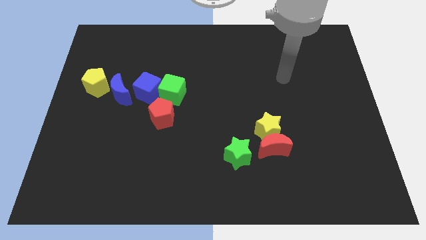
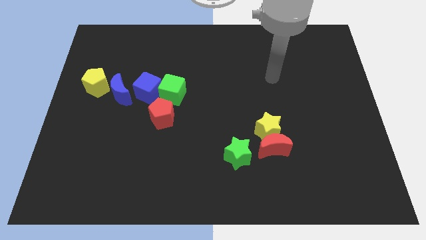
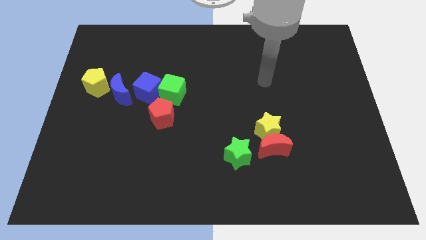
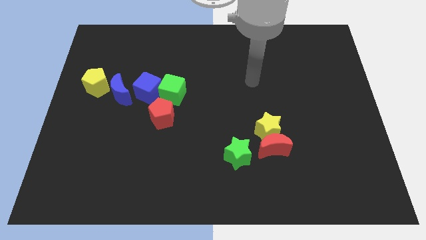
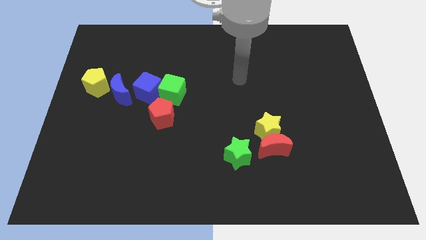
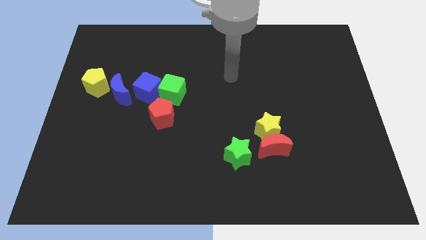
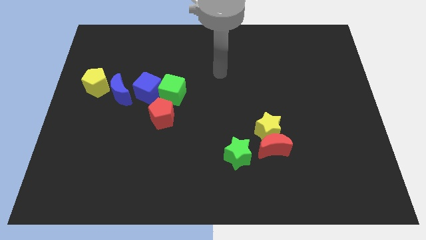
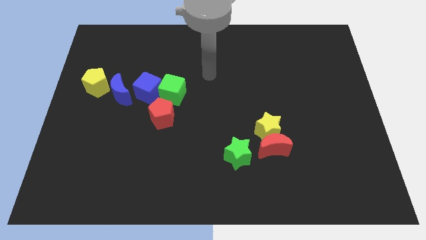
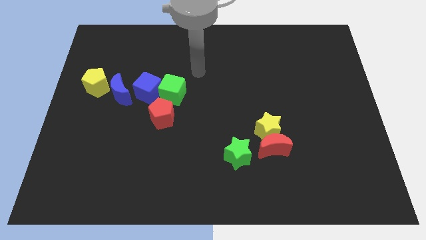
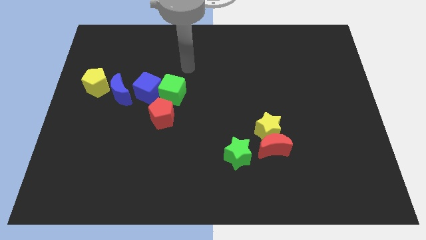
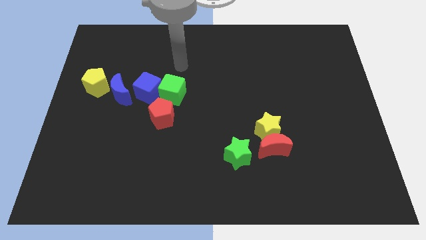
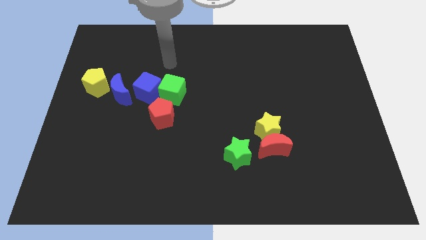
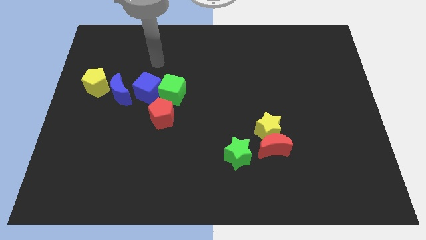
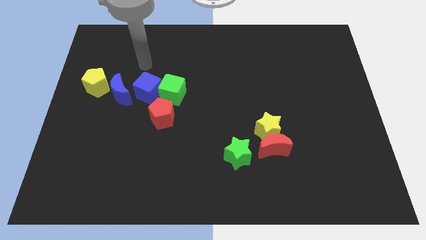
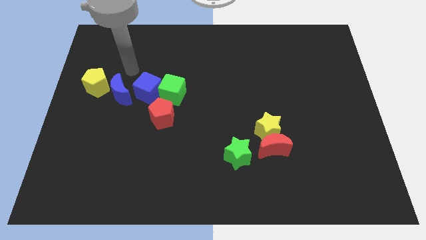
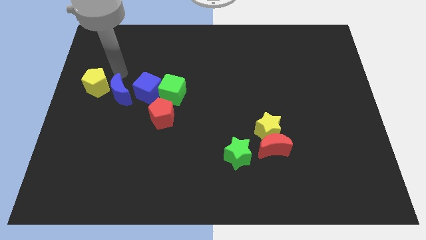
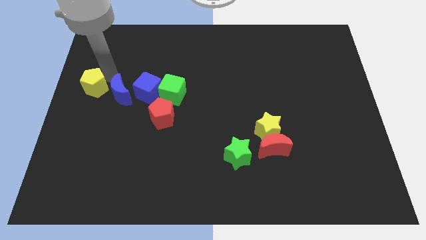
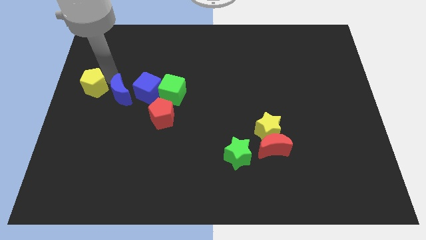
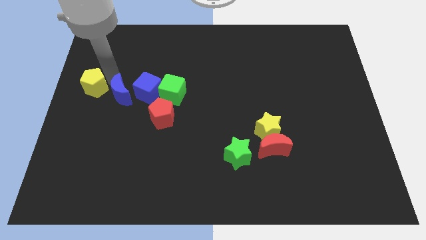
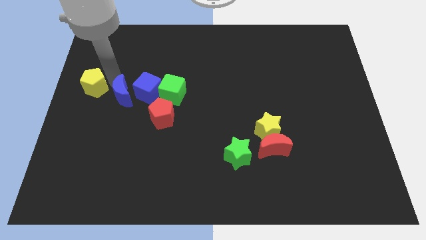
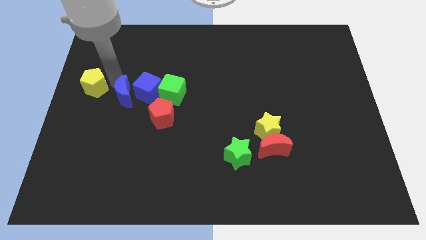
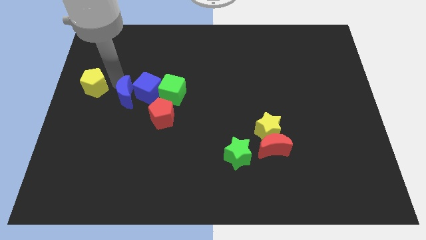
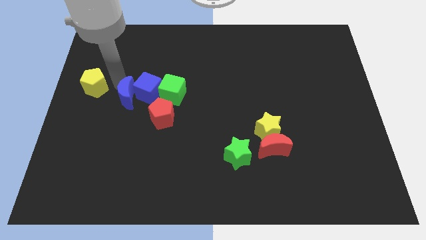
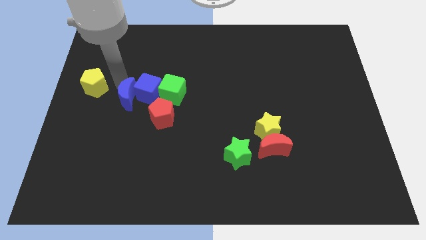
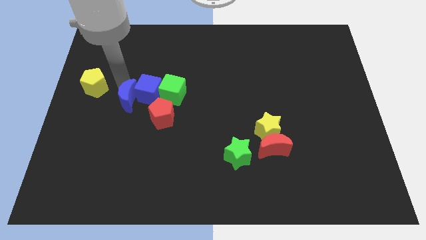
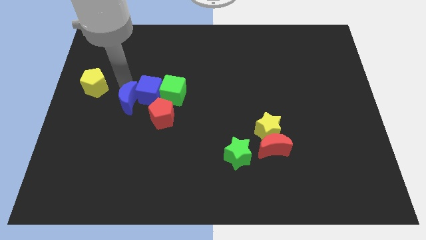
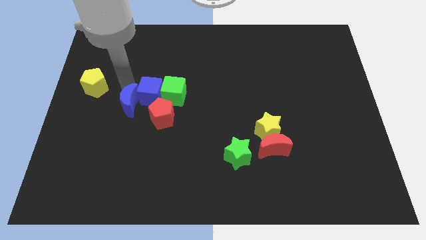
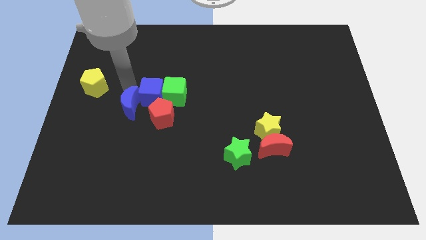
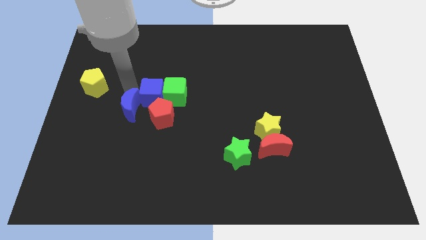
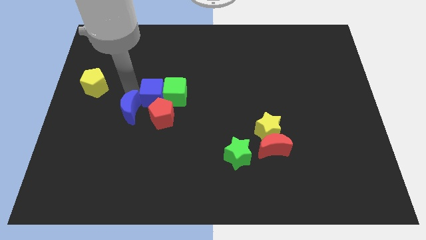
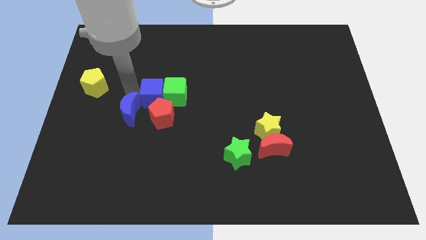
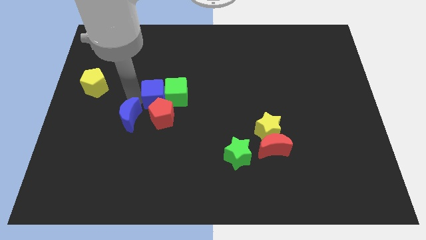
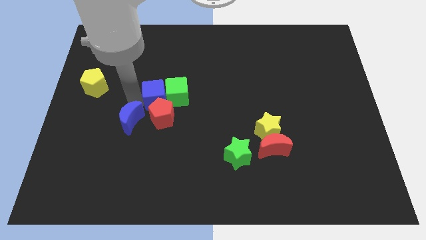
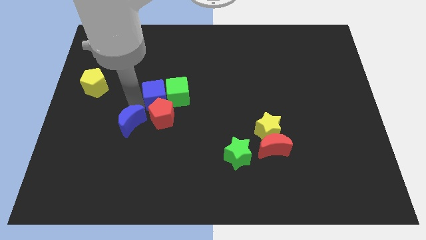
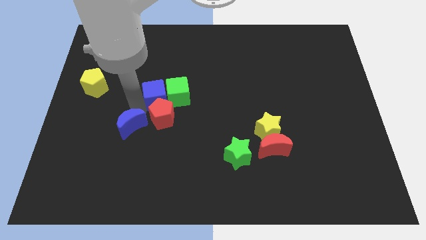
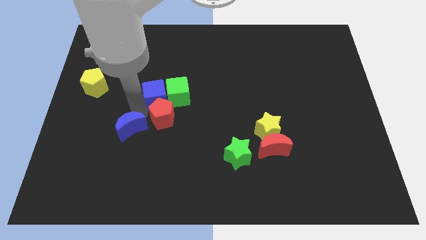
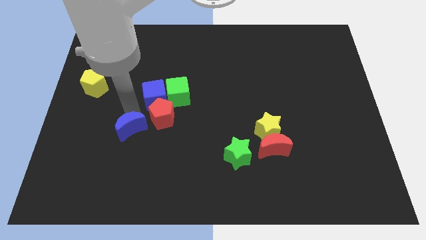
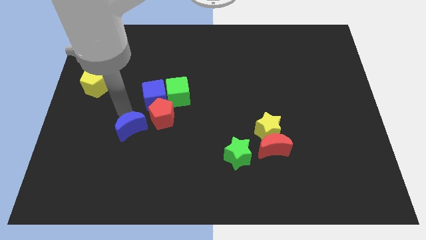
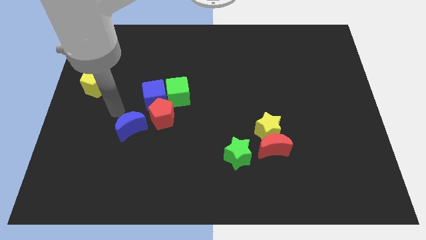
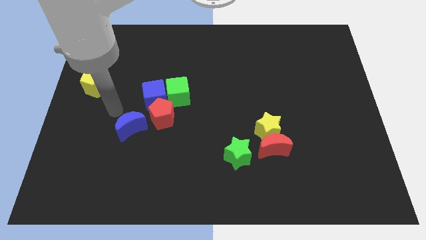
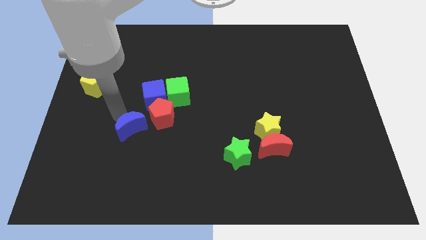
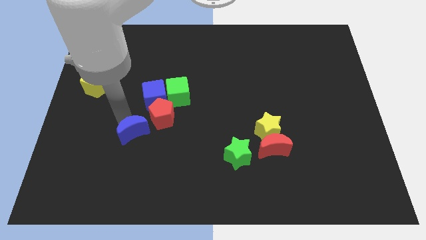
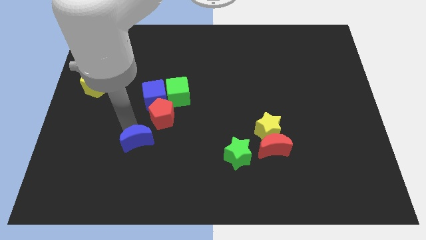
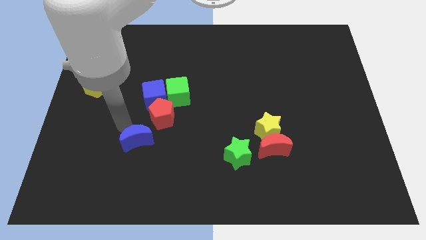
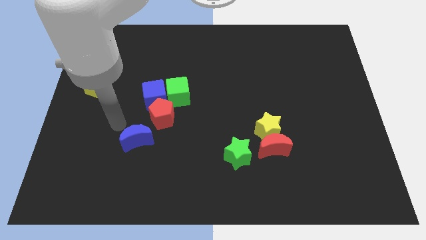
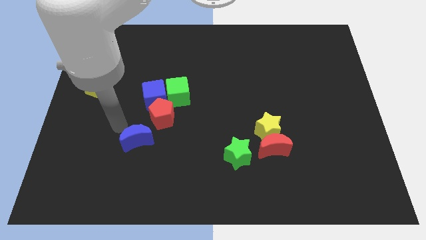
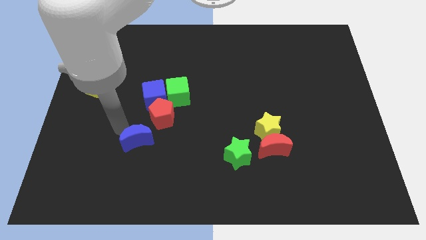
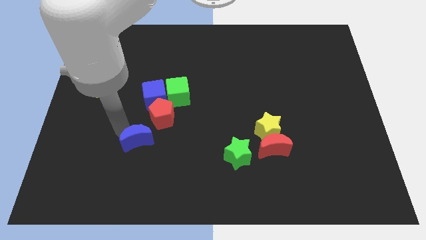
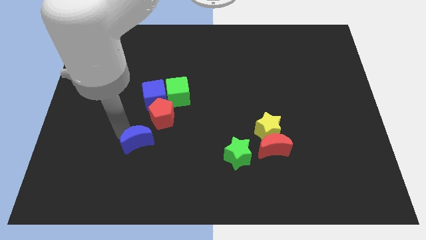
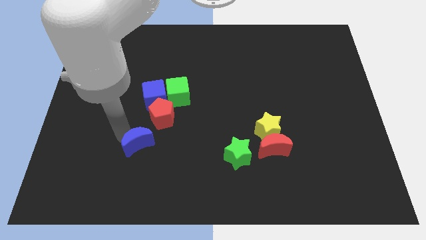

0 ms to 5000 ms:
slide the blue moon below the red pentagon

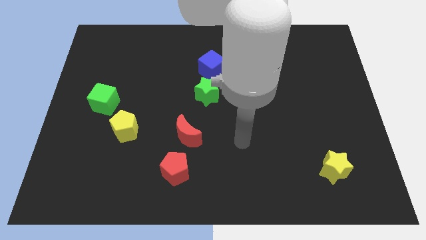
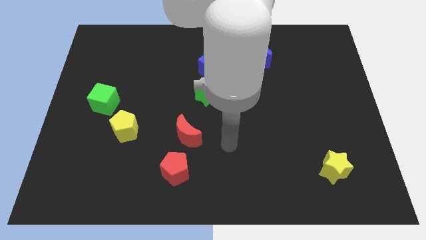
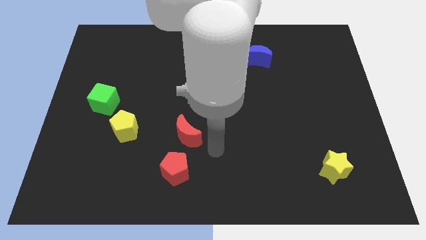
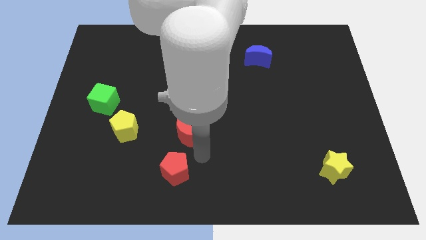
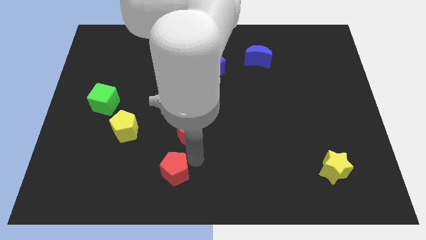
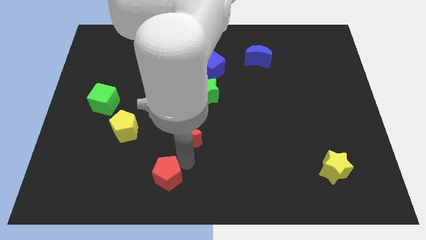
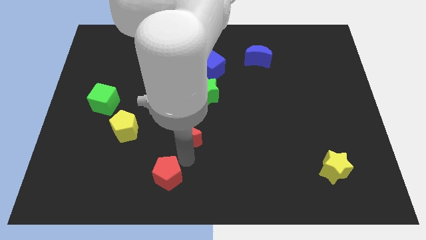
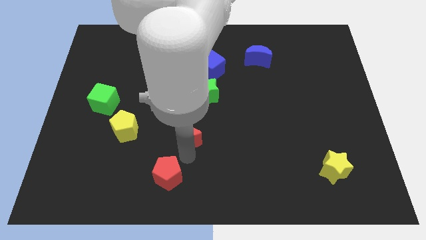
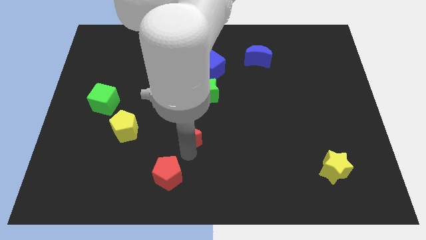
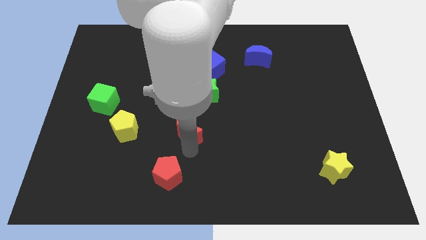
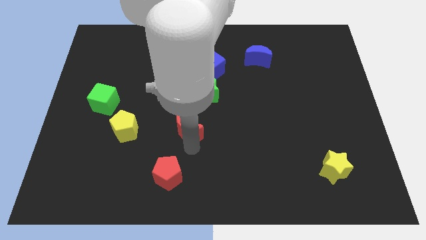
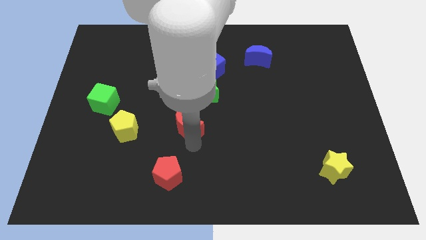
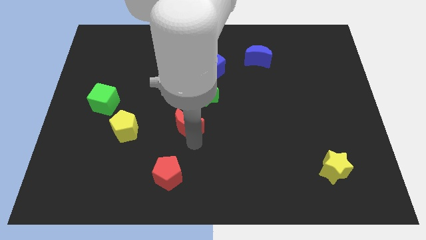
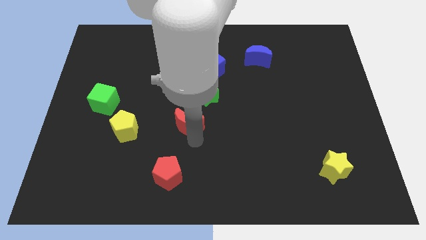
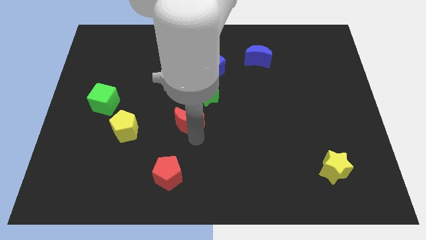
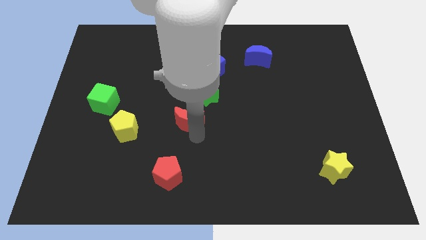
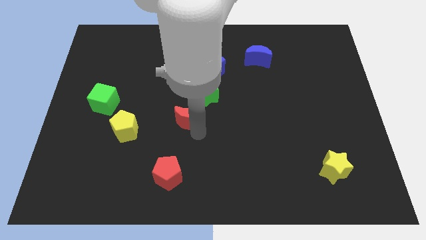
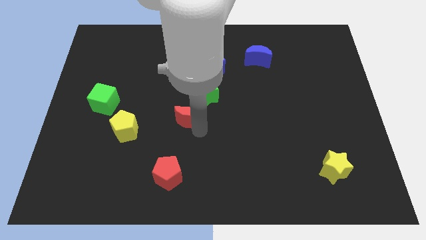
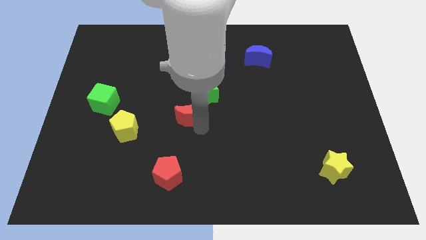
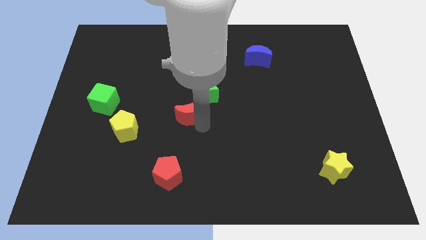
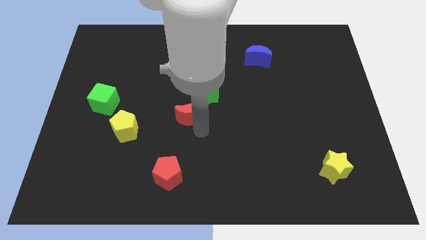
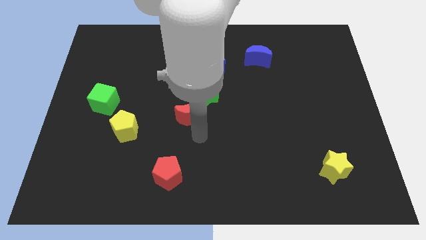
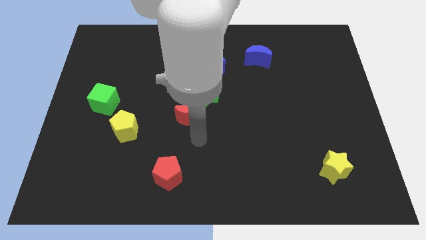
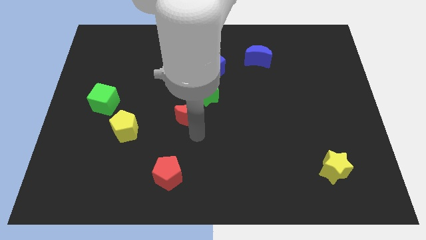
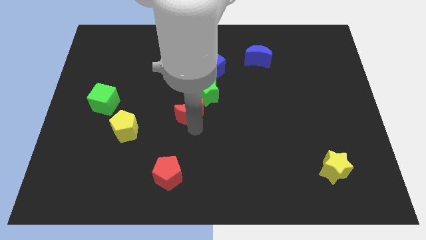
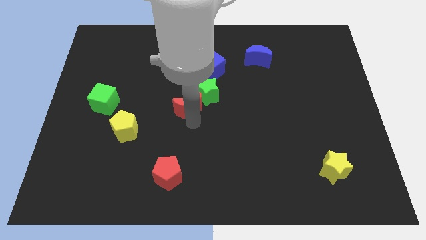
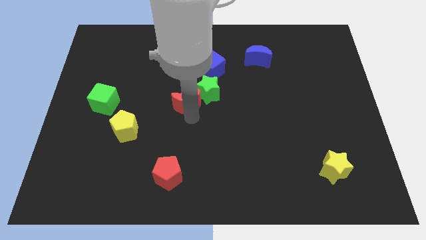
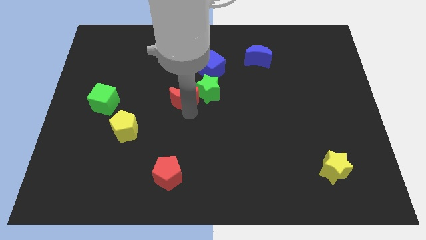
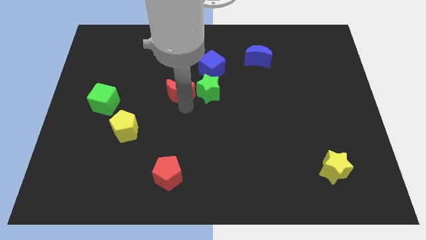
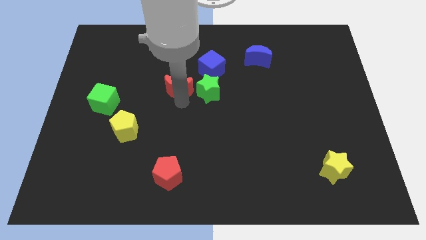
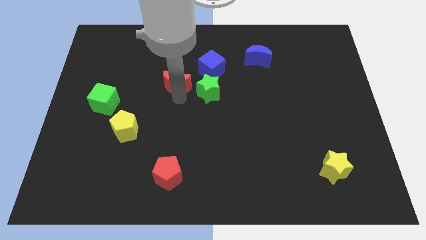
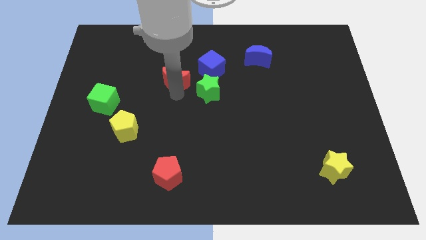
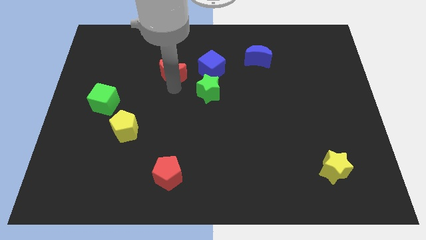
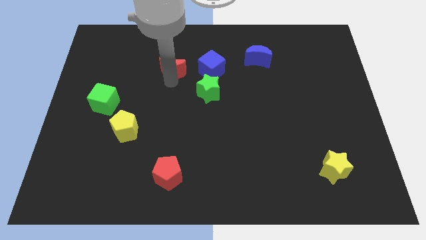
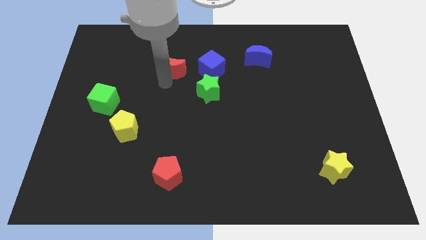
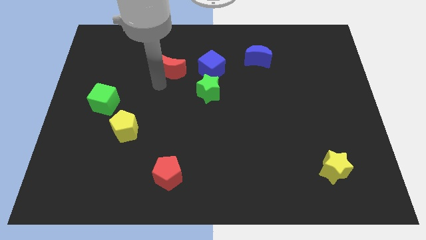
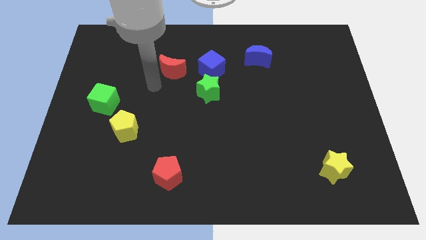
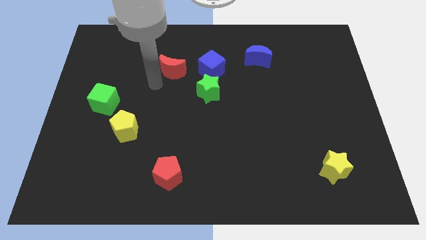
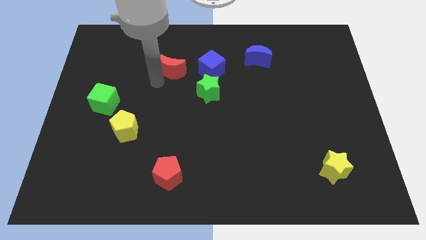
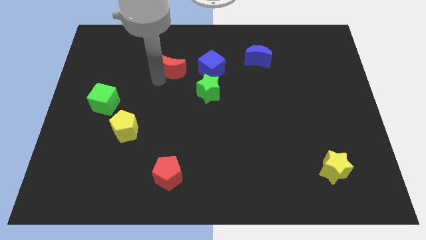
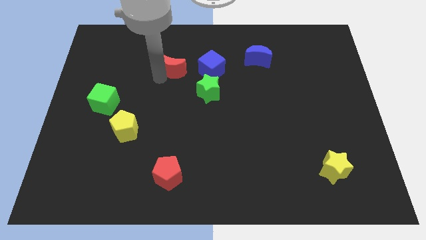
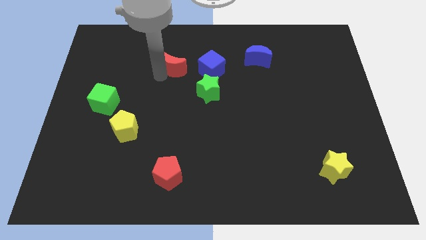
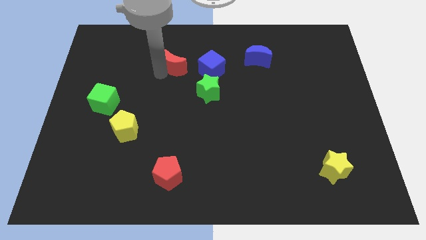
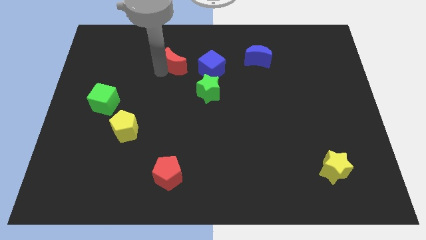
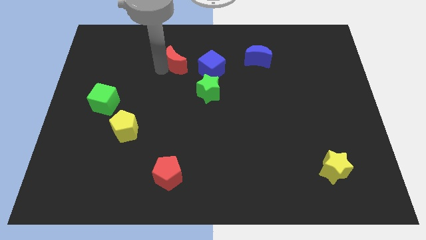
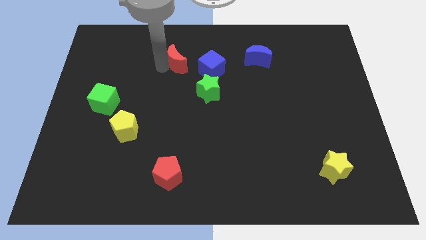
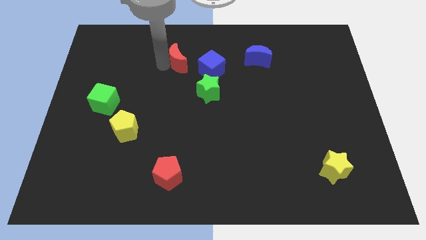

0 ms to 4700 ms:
move the red moon to the top left side of the blue cube
